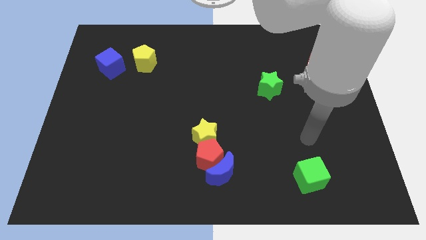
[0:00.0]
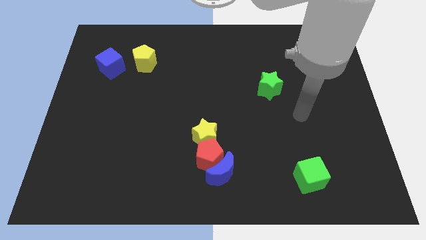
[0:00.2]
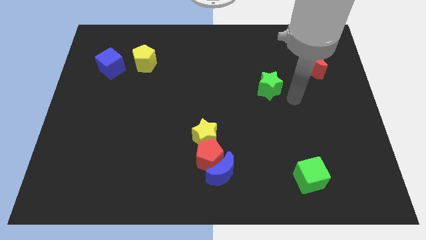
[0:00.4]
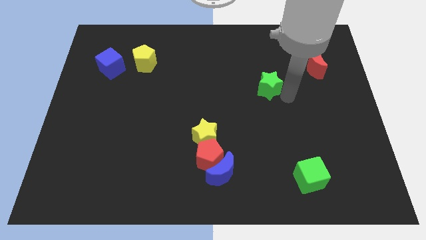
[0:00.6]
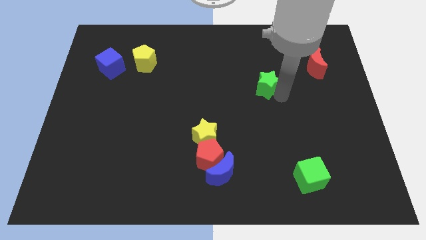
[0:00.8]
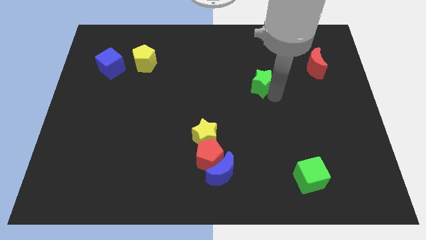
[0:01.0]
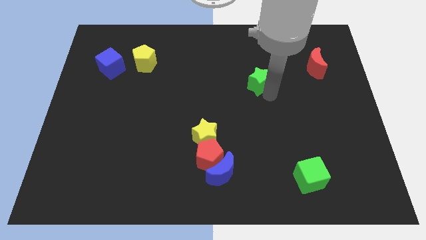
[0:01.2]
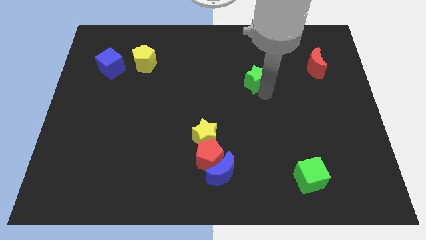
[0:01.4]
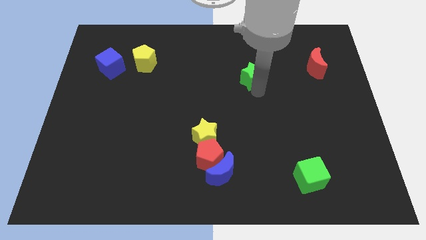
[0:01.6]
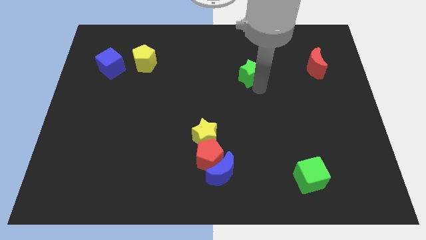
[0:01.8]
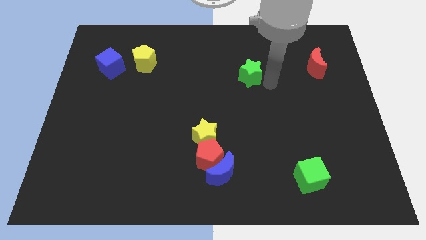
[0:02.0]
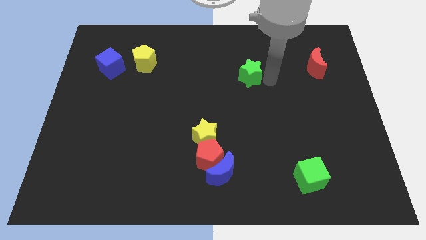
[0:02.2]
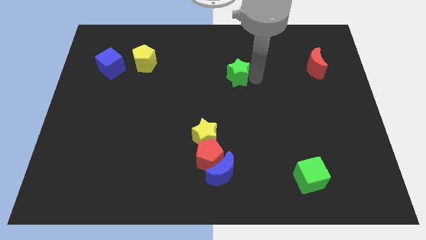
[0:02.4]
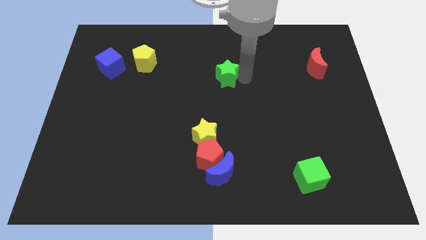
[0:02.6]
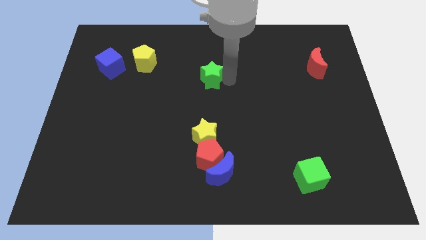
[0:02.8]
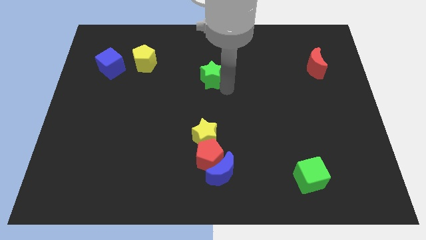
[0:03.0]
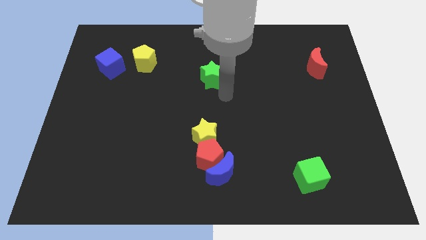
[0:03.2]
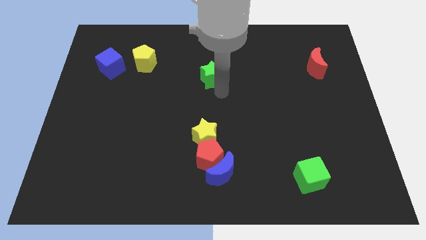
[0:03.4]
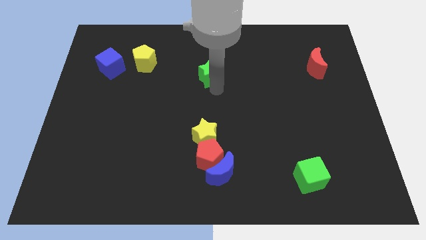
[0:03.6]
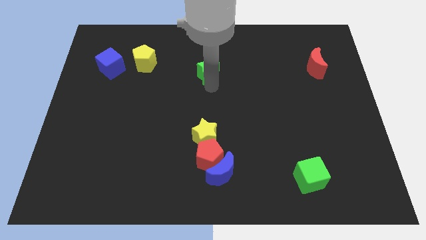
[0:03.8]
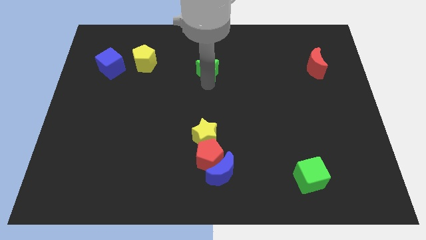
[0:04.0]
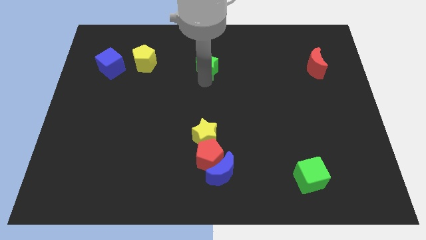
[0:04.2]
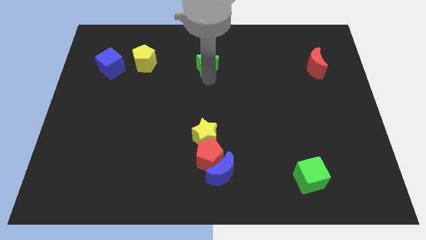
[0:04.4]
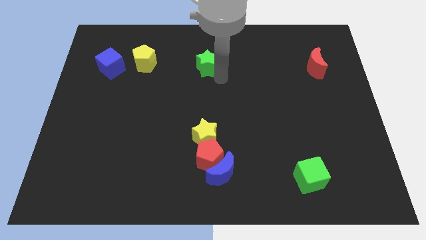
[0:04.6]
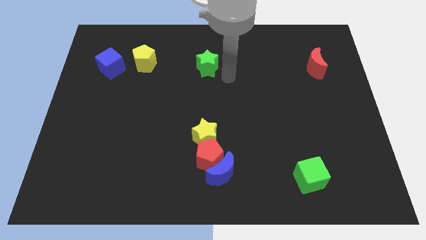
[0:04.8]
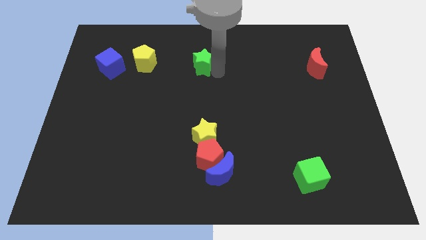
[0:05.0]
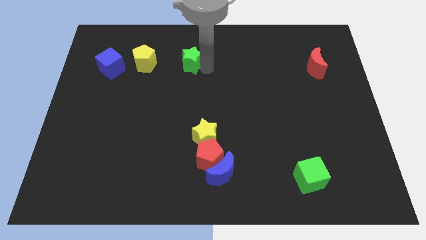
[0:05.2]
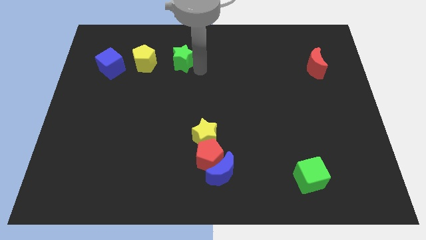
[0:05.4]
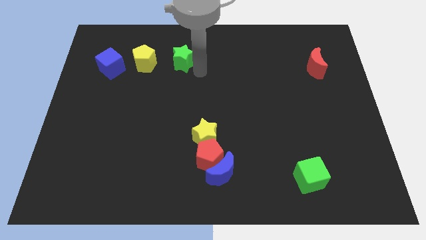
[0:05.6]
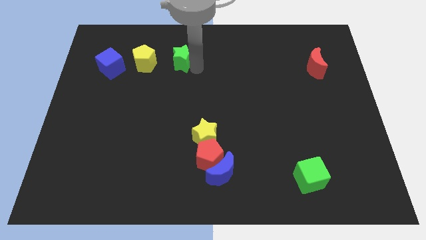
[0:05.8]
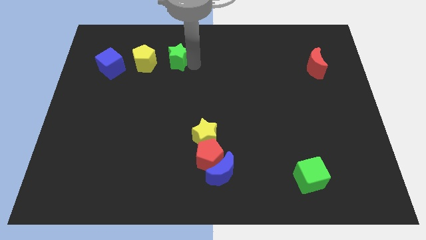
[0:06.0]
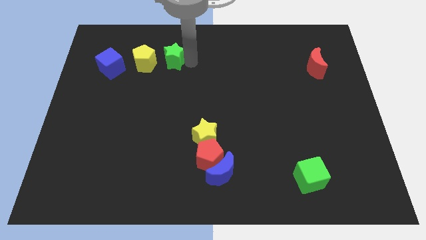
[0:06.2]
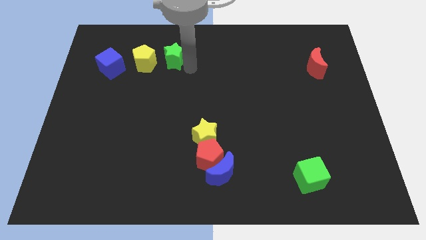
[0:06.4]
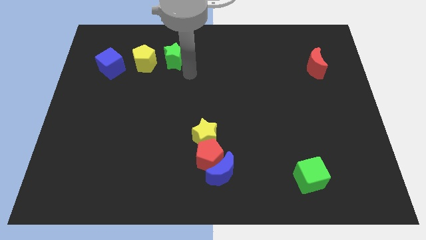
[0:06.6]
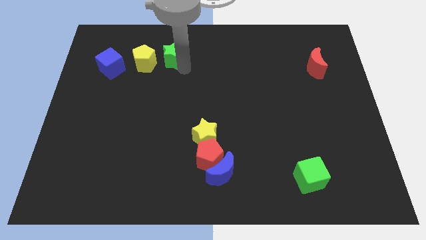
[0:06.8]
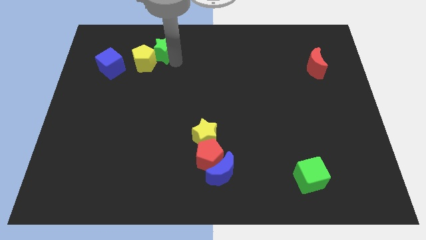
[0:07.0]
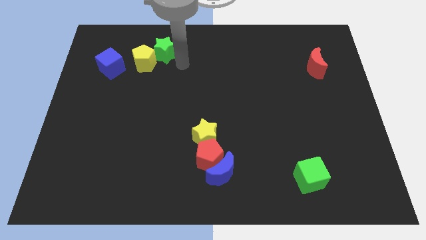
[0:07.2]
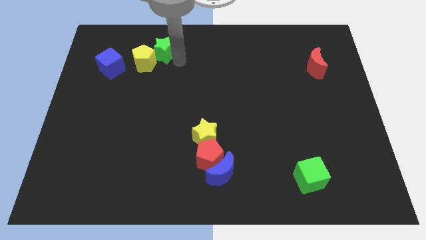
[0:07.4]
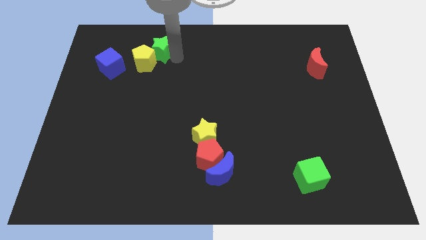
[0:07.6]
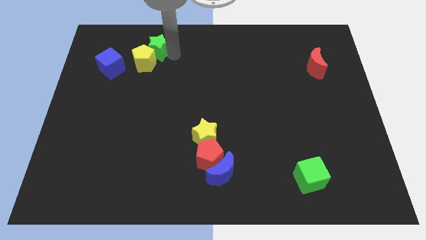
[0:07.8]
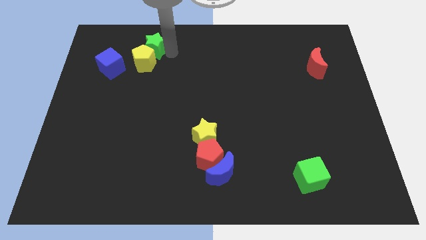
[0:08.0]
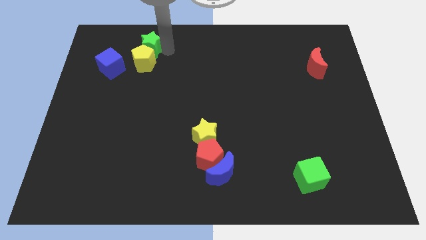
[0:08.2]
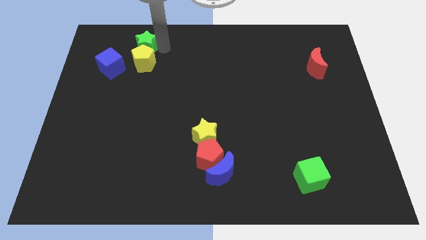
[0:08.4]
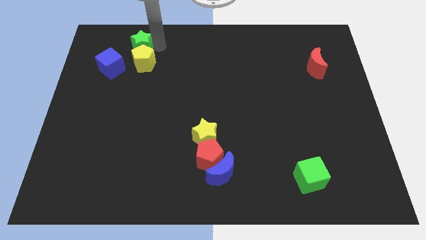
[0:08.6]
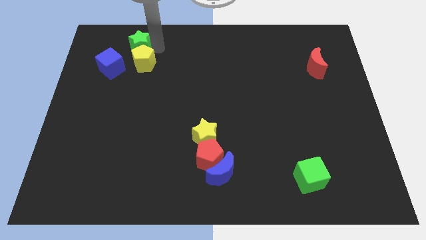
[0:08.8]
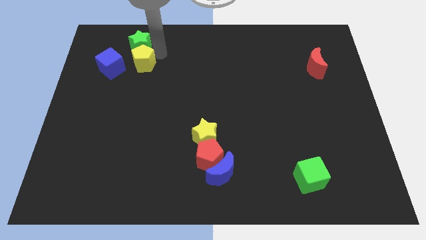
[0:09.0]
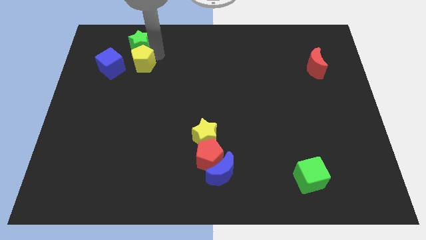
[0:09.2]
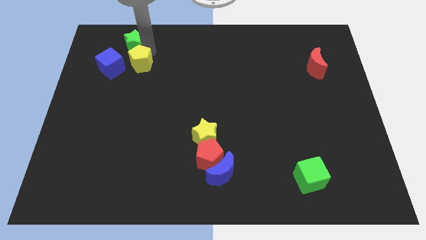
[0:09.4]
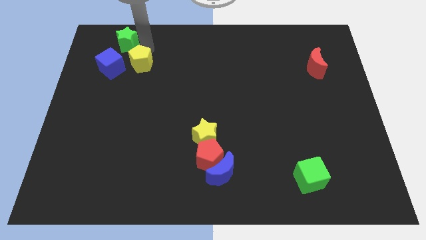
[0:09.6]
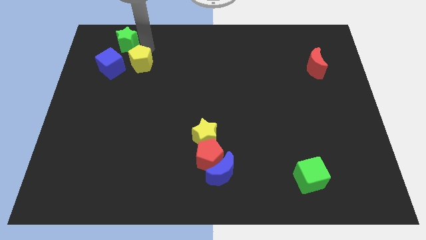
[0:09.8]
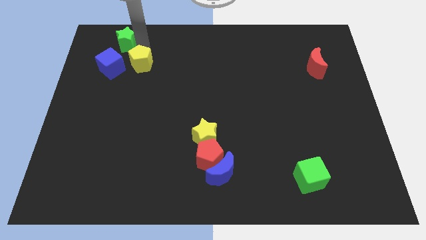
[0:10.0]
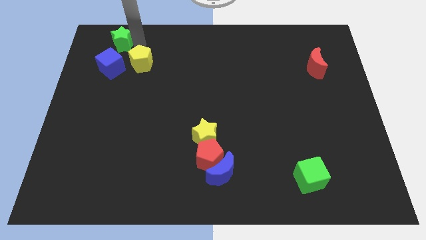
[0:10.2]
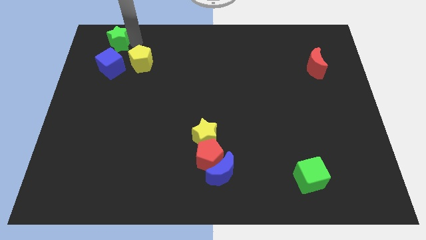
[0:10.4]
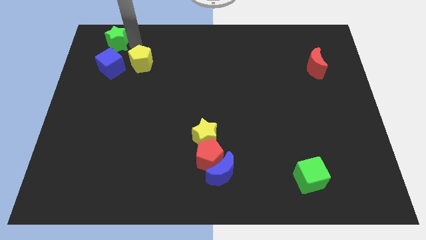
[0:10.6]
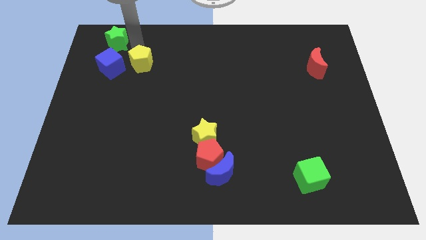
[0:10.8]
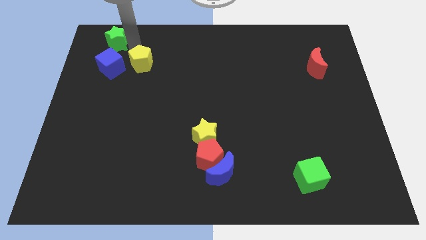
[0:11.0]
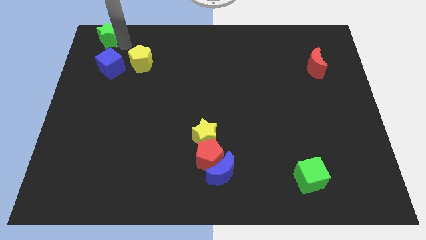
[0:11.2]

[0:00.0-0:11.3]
slide the green star to the top left of the board

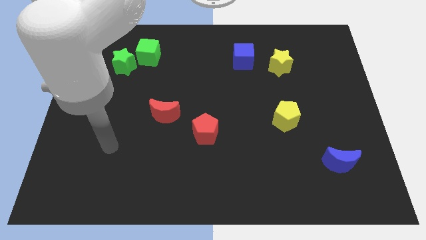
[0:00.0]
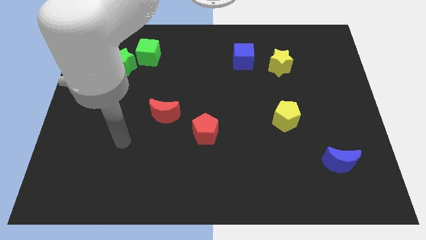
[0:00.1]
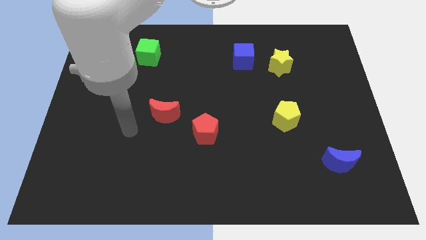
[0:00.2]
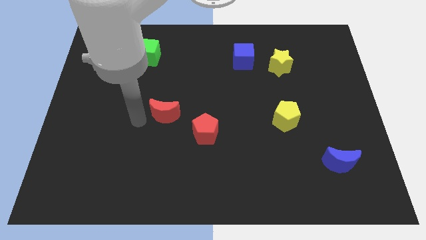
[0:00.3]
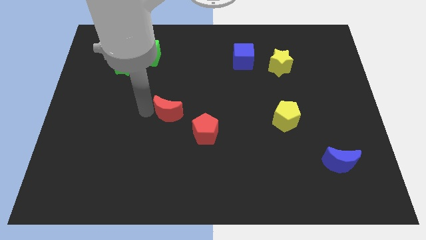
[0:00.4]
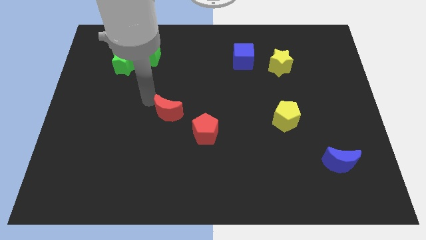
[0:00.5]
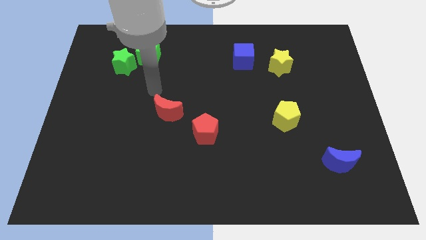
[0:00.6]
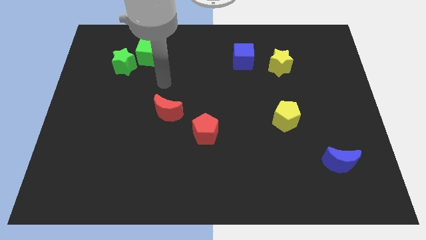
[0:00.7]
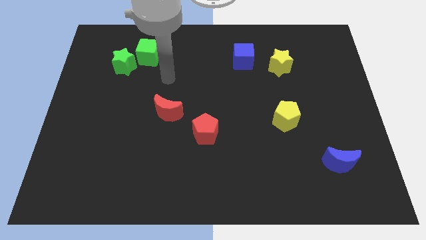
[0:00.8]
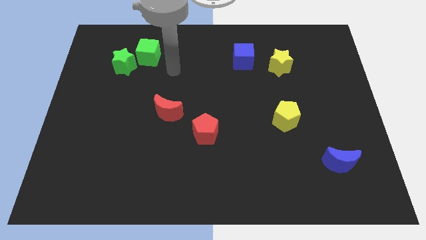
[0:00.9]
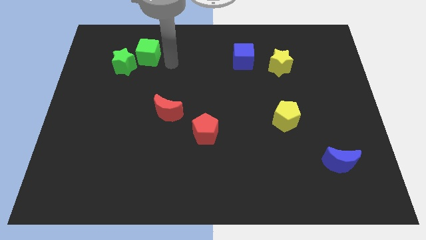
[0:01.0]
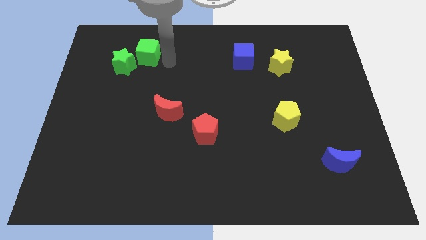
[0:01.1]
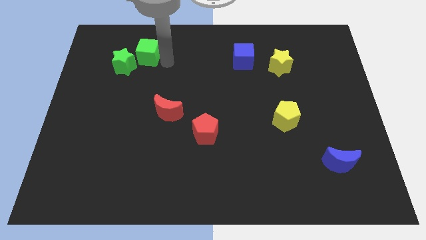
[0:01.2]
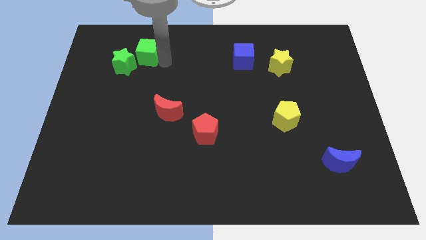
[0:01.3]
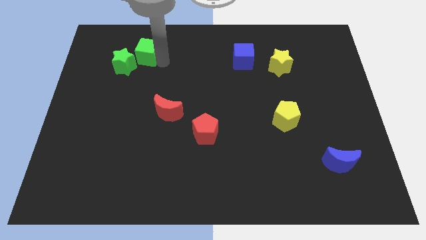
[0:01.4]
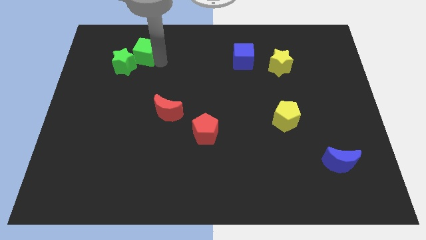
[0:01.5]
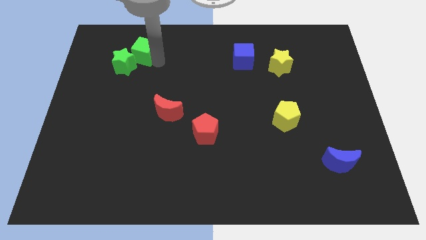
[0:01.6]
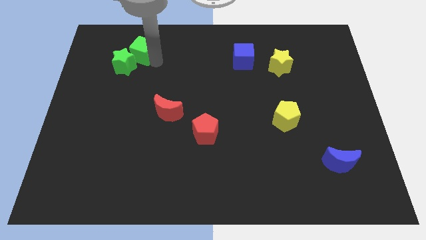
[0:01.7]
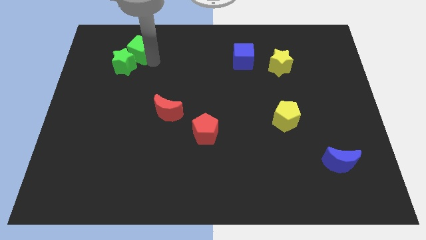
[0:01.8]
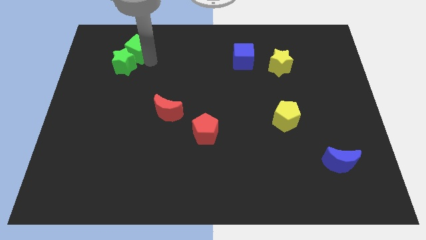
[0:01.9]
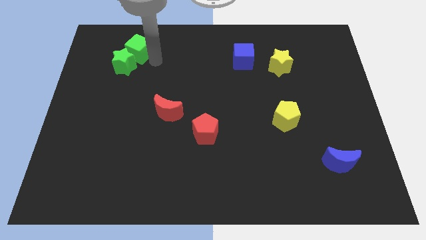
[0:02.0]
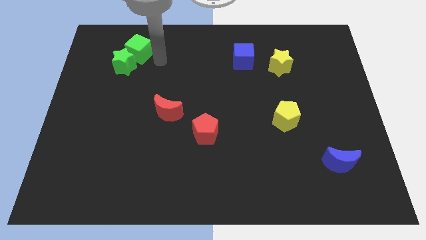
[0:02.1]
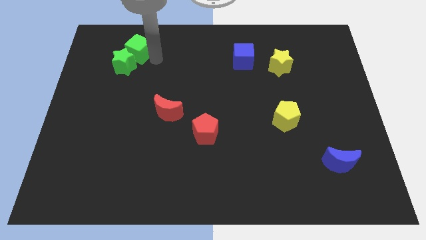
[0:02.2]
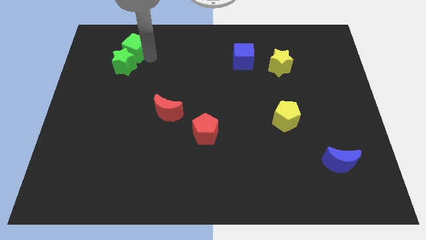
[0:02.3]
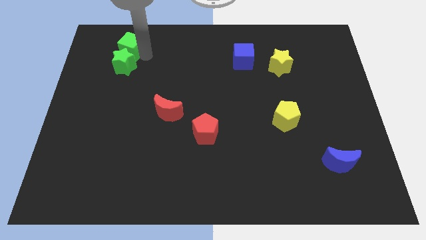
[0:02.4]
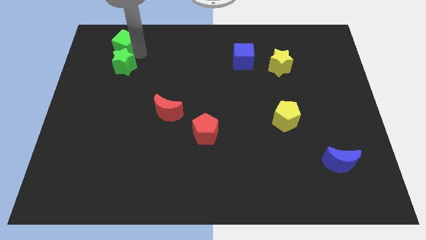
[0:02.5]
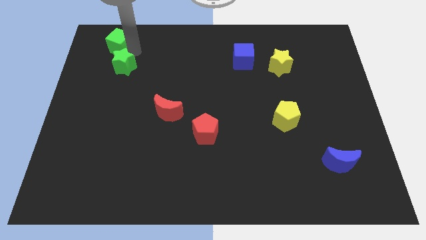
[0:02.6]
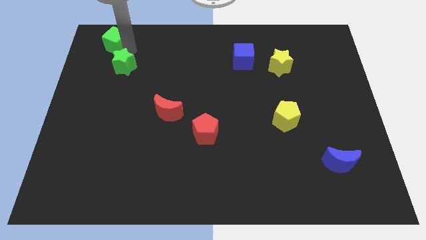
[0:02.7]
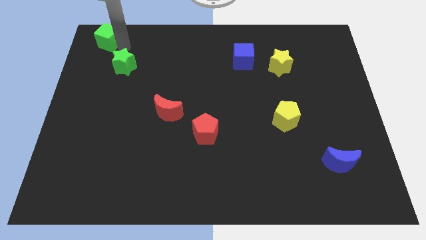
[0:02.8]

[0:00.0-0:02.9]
move the green cube to the top left
